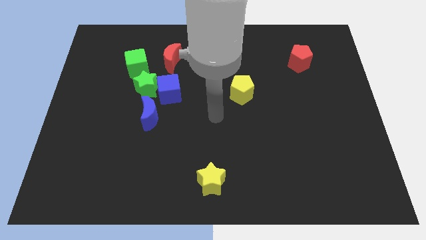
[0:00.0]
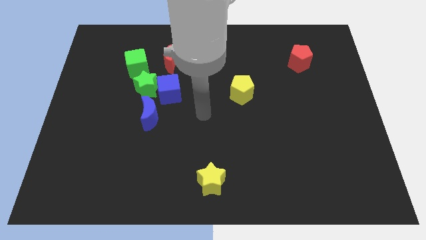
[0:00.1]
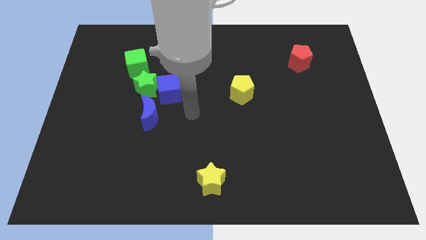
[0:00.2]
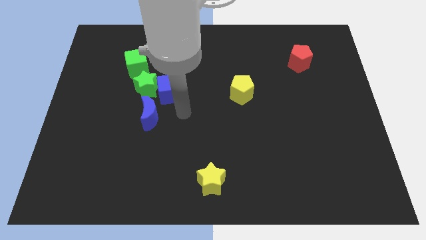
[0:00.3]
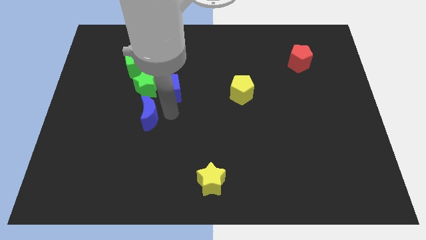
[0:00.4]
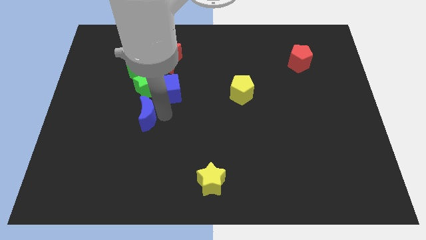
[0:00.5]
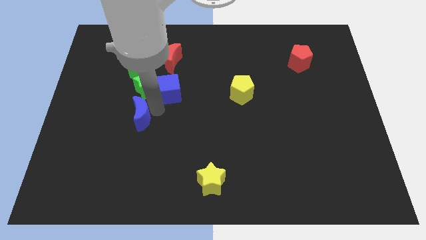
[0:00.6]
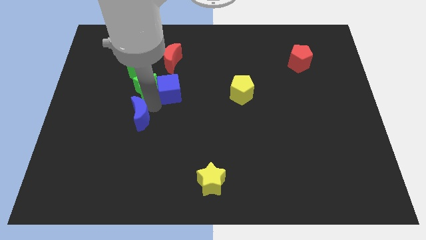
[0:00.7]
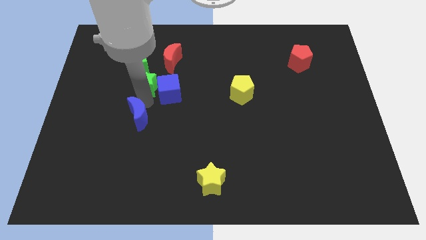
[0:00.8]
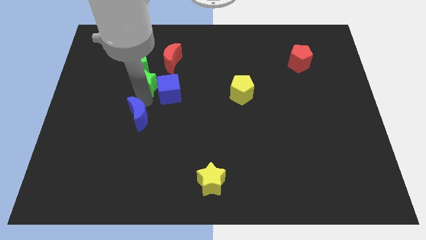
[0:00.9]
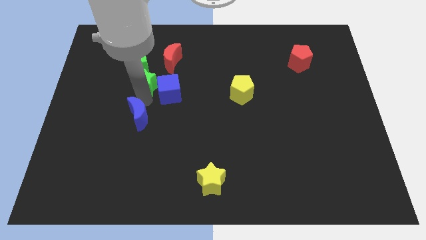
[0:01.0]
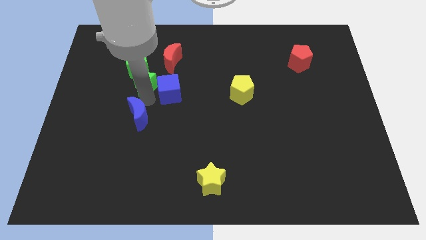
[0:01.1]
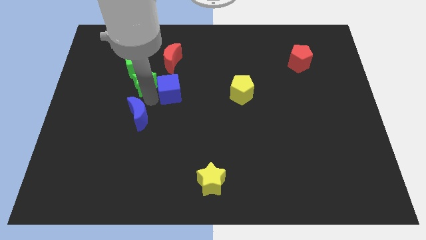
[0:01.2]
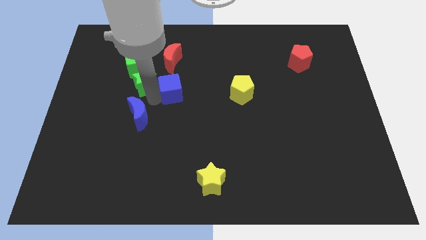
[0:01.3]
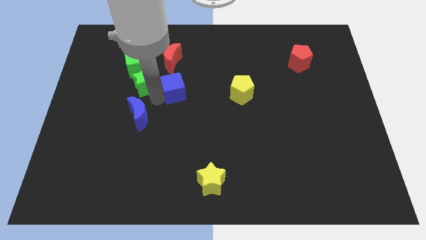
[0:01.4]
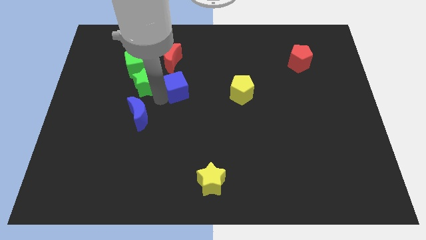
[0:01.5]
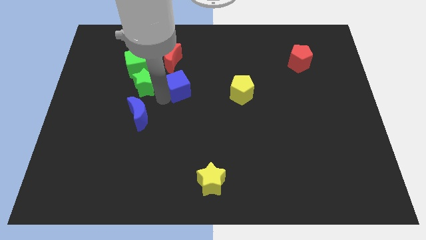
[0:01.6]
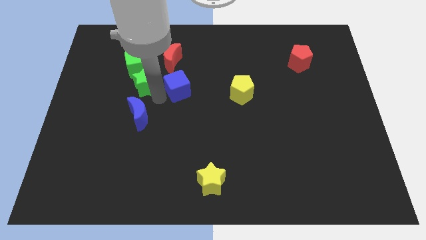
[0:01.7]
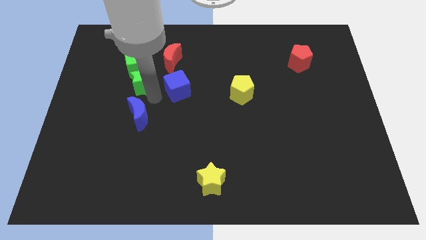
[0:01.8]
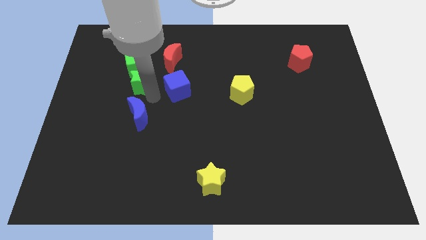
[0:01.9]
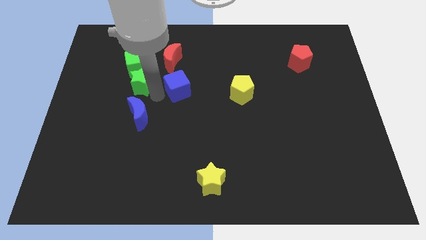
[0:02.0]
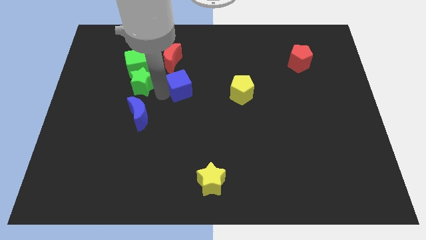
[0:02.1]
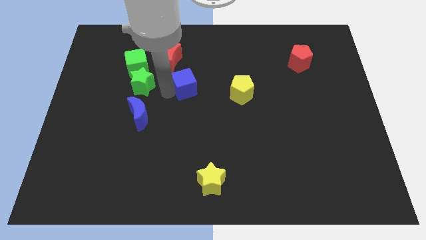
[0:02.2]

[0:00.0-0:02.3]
pull the blue cube apart from the green star and blue moon

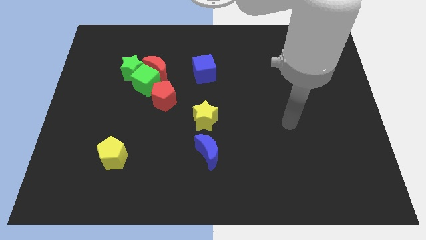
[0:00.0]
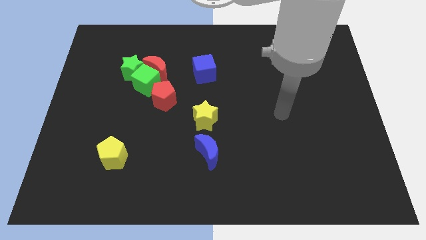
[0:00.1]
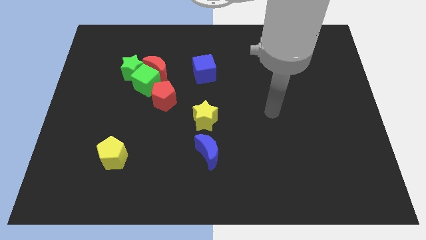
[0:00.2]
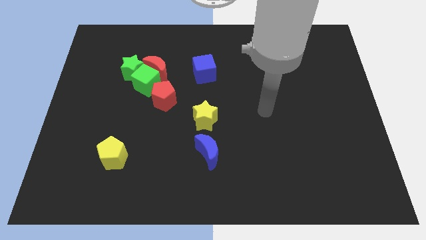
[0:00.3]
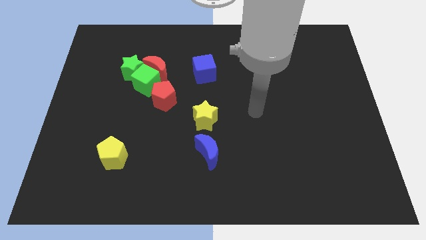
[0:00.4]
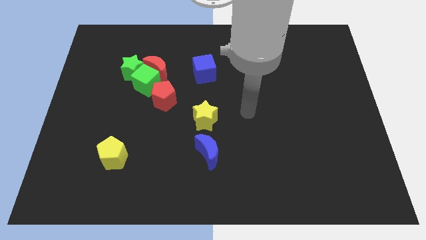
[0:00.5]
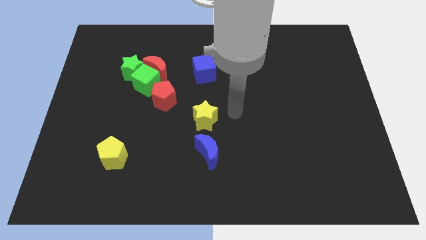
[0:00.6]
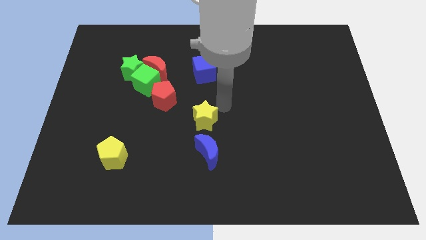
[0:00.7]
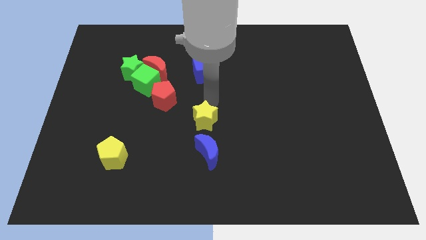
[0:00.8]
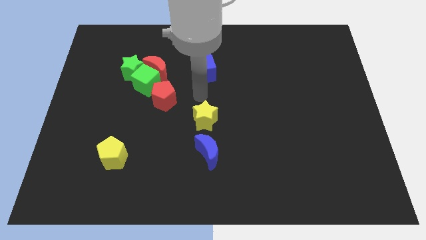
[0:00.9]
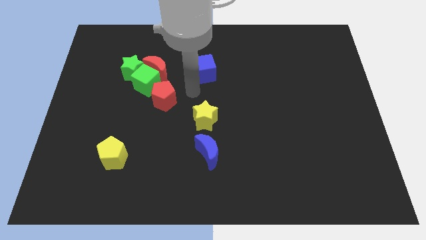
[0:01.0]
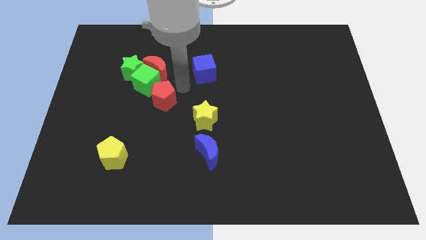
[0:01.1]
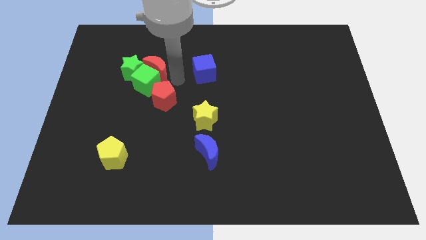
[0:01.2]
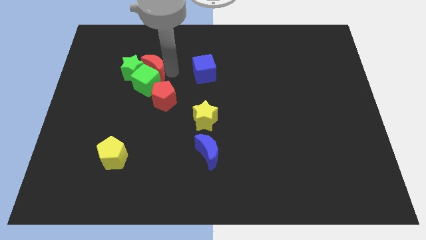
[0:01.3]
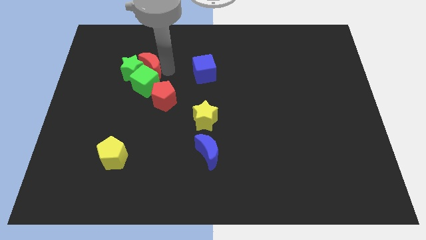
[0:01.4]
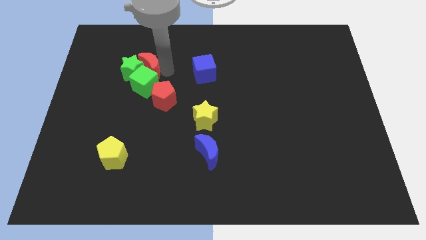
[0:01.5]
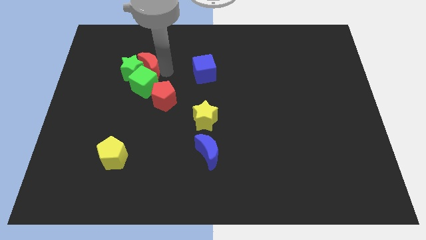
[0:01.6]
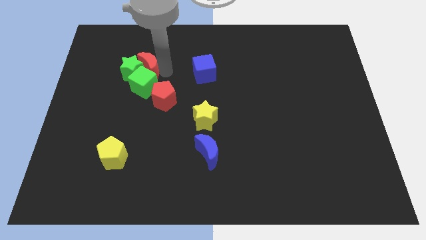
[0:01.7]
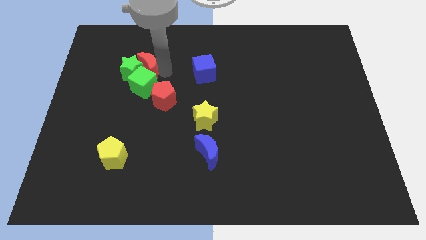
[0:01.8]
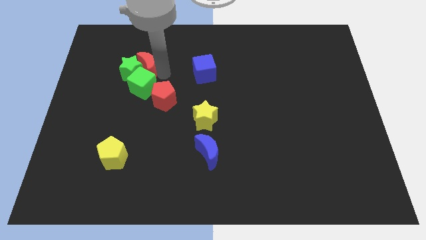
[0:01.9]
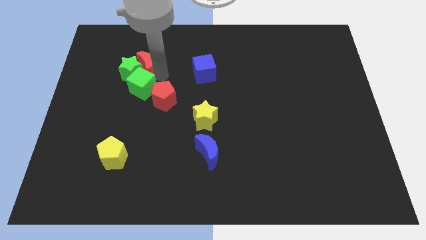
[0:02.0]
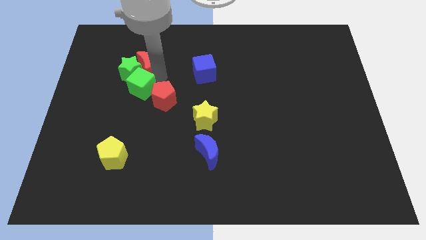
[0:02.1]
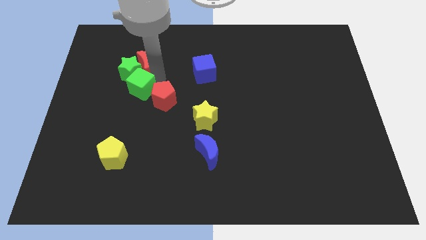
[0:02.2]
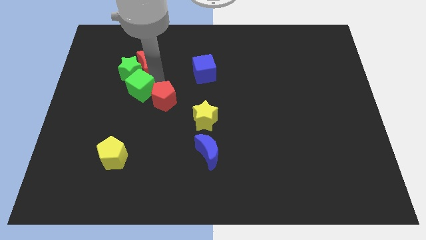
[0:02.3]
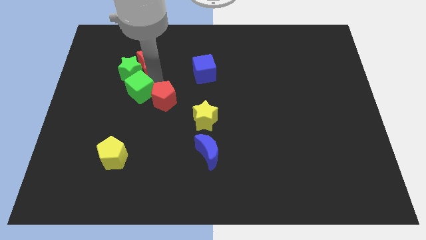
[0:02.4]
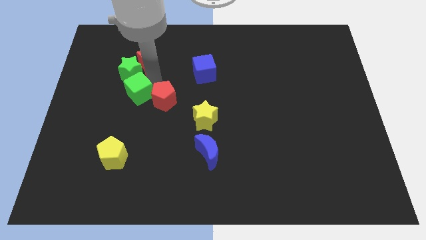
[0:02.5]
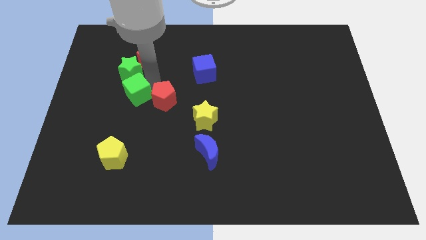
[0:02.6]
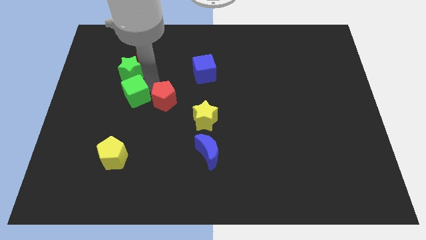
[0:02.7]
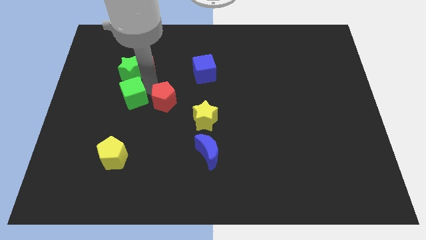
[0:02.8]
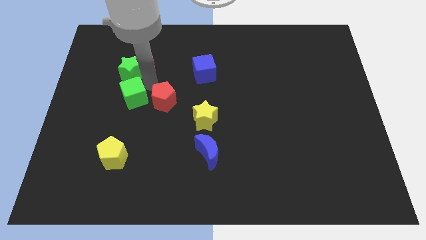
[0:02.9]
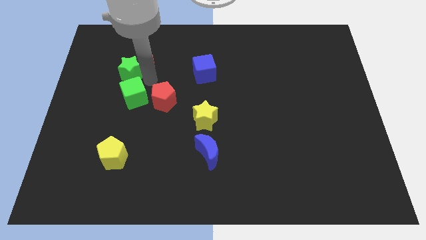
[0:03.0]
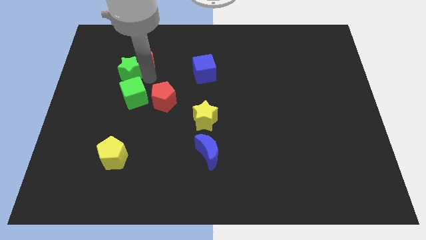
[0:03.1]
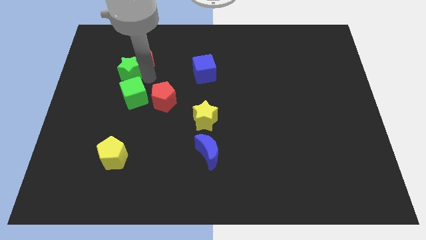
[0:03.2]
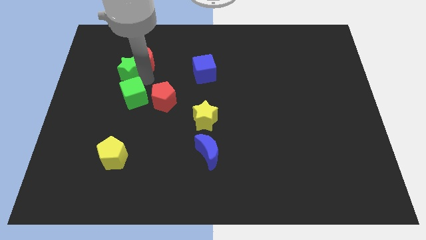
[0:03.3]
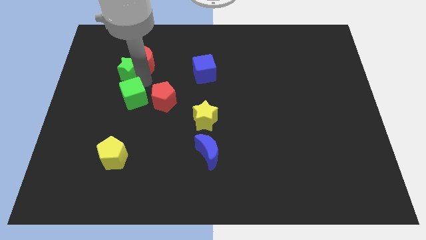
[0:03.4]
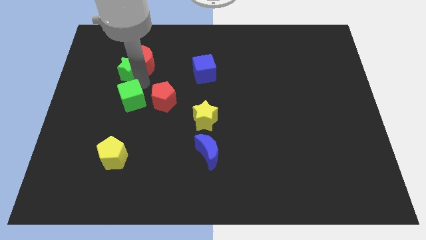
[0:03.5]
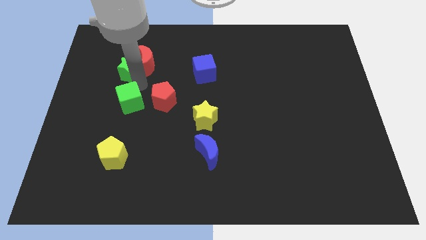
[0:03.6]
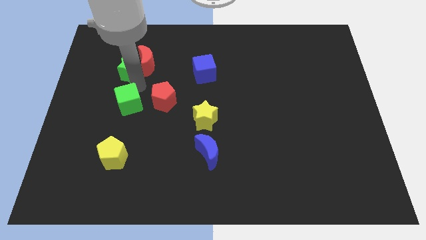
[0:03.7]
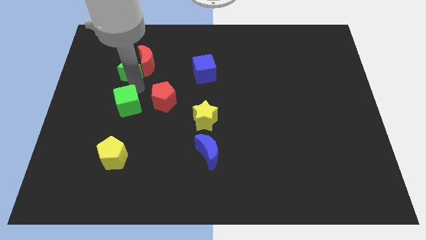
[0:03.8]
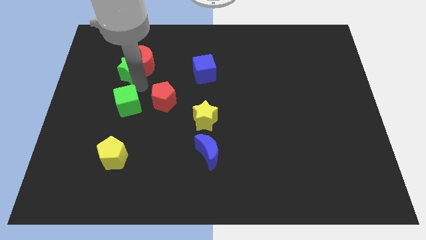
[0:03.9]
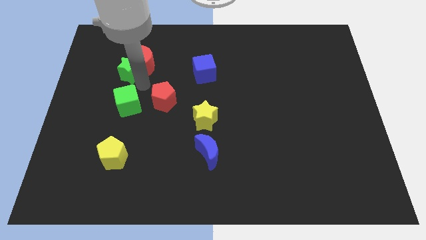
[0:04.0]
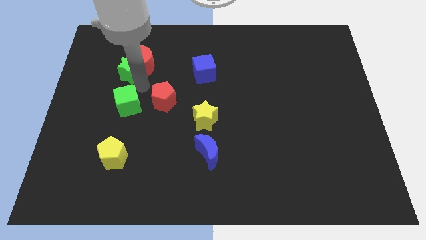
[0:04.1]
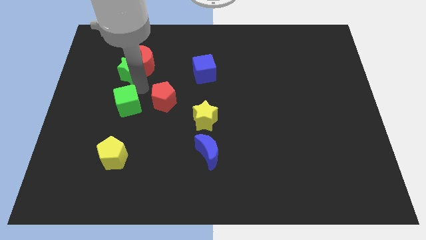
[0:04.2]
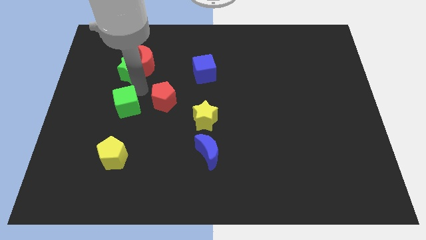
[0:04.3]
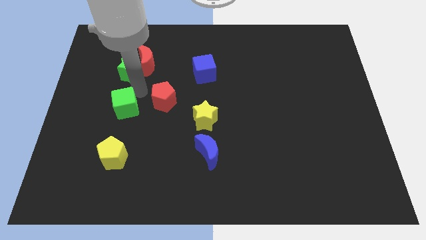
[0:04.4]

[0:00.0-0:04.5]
move the green cube away from the red moon, green star, and red pentagon

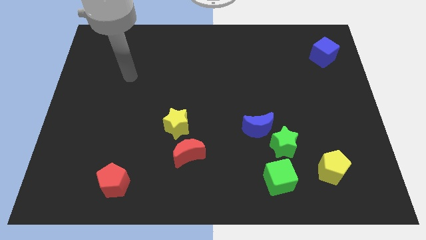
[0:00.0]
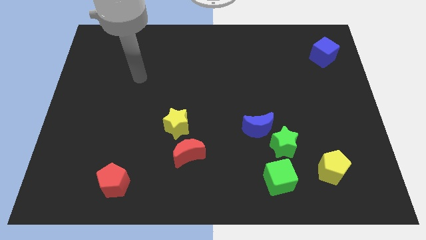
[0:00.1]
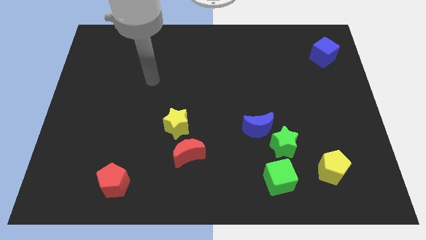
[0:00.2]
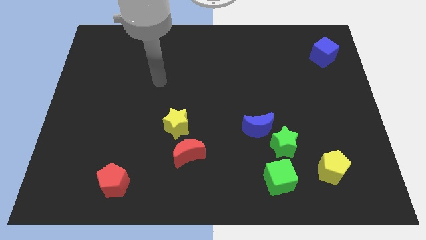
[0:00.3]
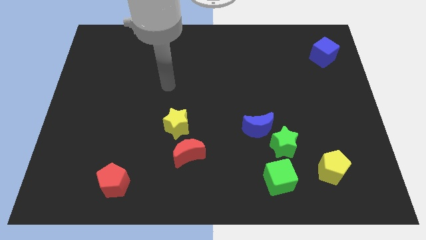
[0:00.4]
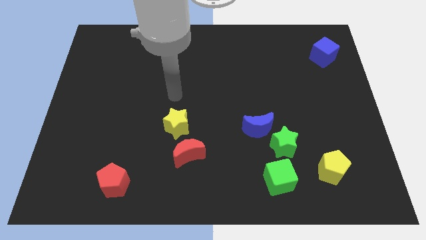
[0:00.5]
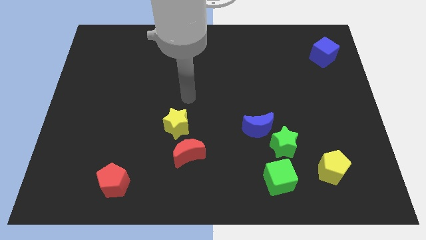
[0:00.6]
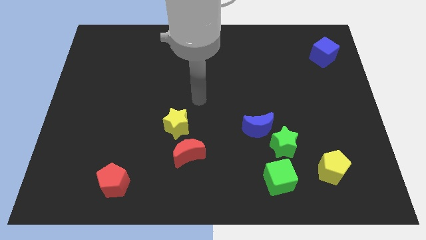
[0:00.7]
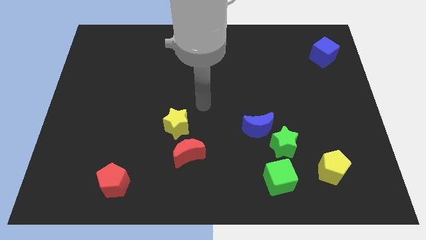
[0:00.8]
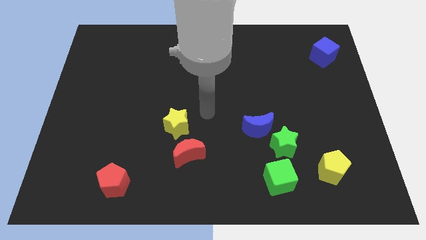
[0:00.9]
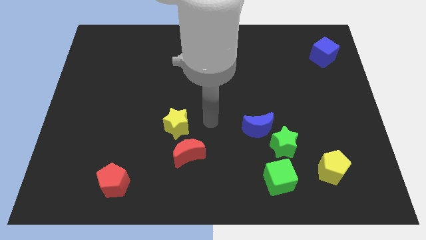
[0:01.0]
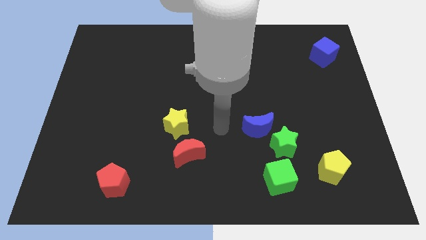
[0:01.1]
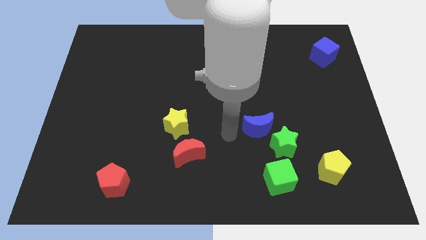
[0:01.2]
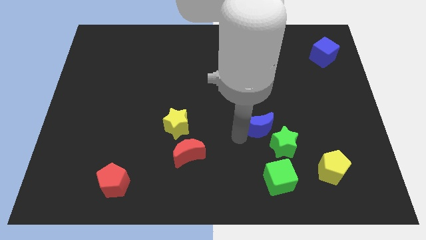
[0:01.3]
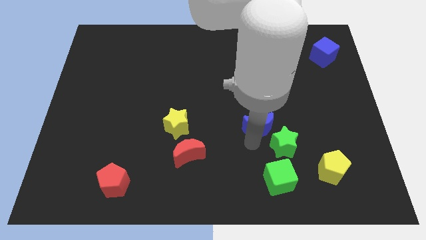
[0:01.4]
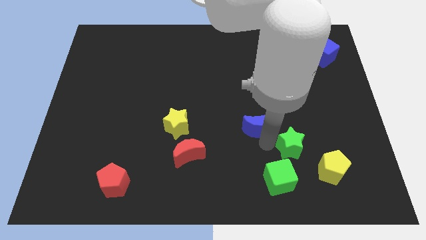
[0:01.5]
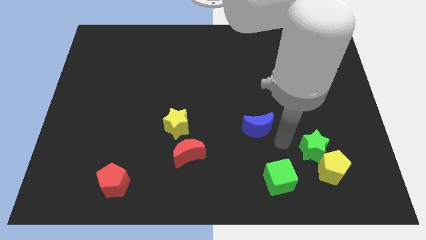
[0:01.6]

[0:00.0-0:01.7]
move the blue moon away from the green star

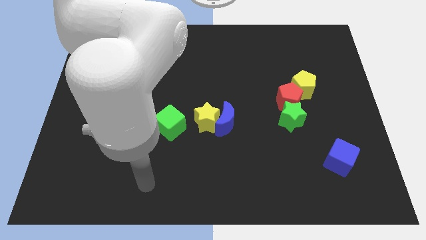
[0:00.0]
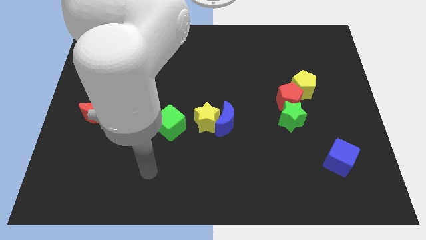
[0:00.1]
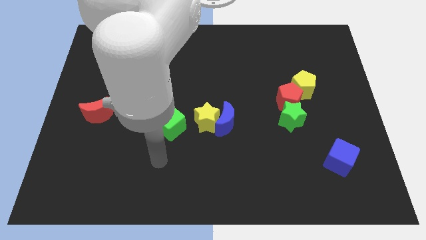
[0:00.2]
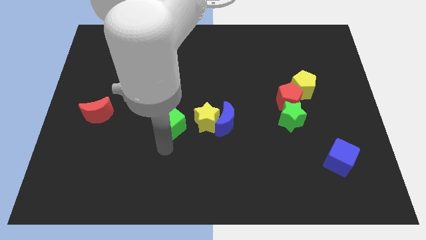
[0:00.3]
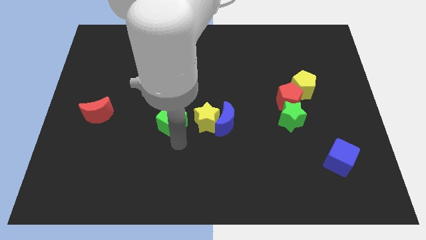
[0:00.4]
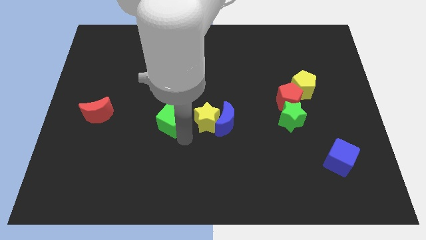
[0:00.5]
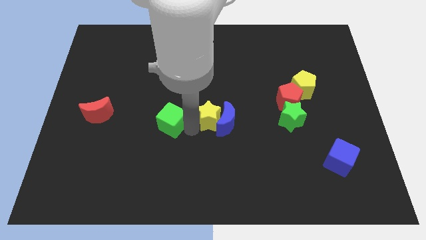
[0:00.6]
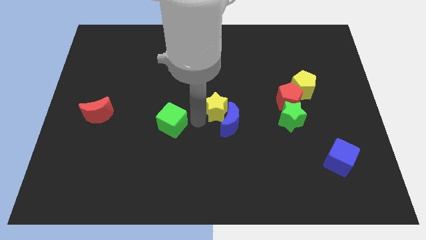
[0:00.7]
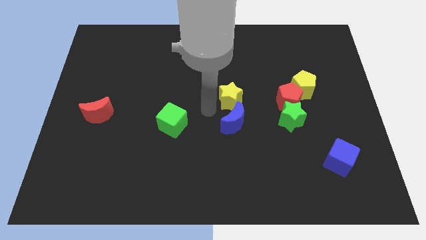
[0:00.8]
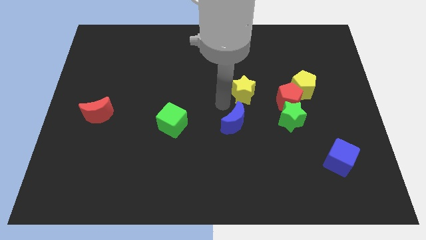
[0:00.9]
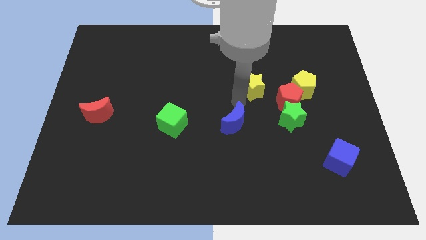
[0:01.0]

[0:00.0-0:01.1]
pull the blue moon apart from the yellow star
